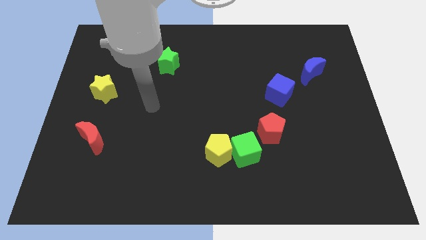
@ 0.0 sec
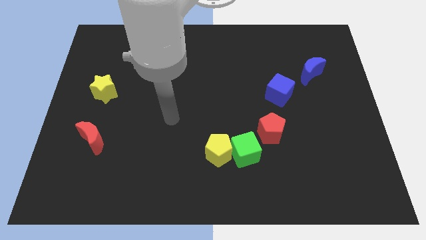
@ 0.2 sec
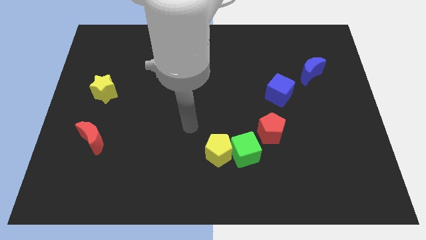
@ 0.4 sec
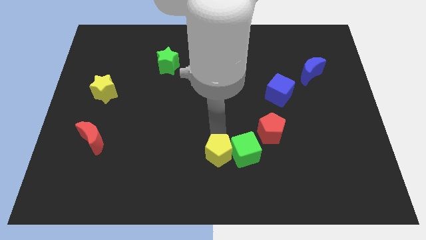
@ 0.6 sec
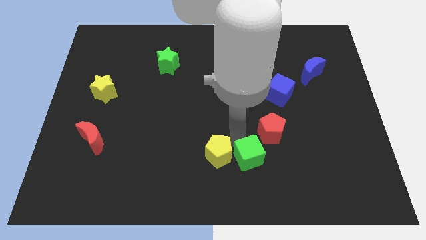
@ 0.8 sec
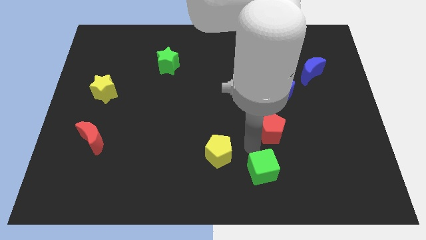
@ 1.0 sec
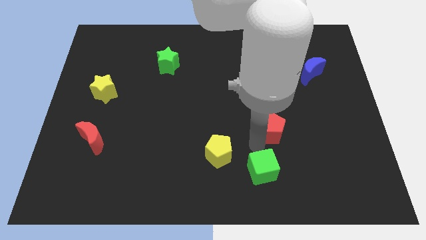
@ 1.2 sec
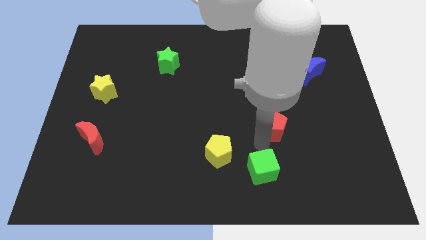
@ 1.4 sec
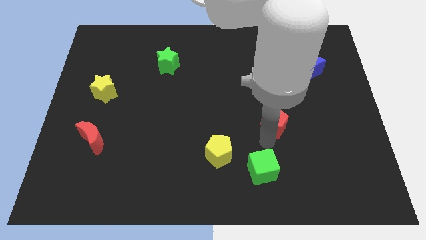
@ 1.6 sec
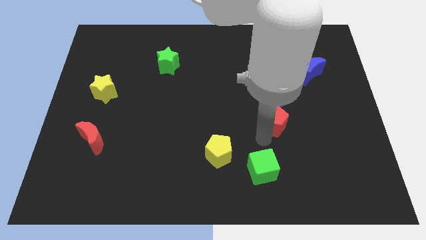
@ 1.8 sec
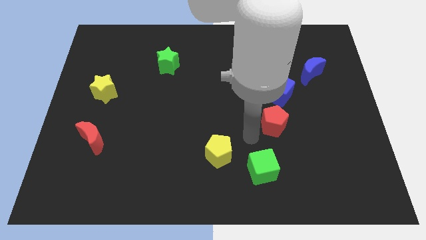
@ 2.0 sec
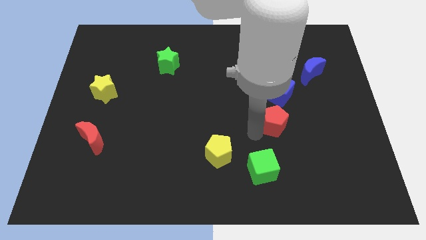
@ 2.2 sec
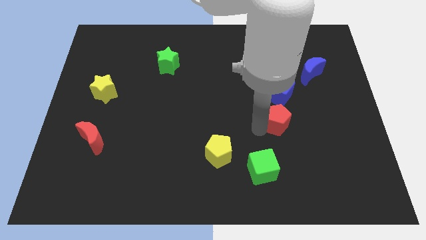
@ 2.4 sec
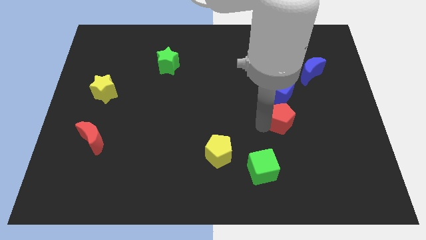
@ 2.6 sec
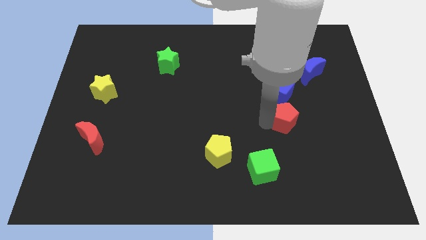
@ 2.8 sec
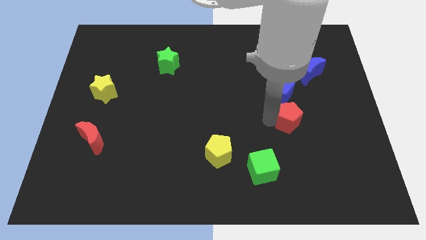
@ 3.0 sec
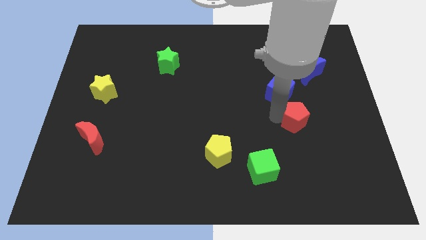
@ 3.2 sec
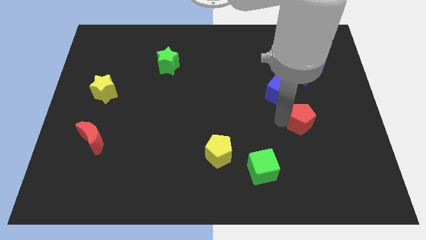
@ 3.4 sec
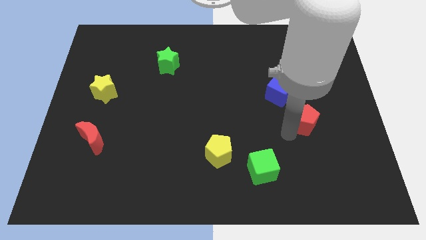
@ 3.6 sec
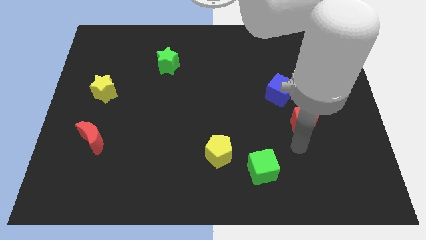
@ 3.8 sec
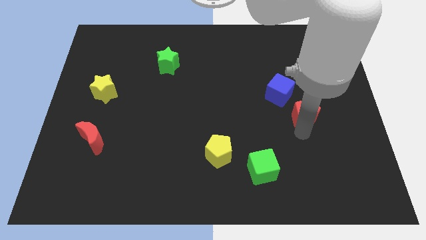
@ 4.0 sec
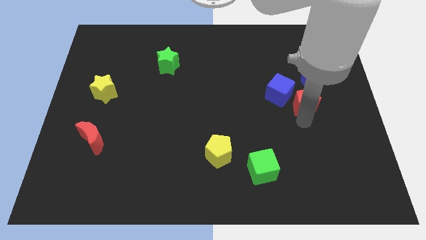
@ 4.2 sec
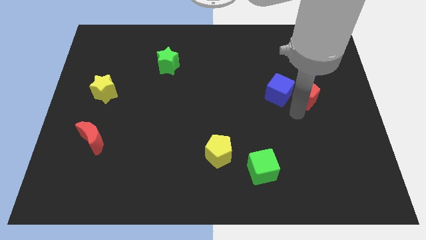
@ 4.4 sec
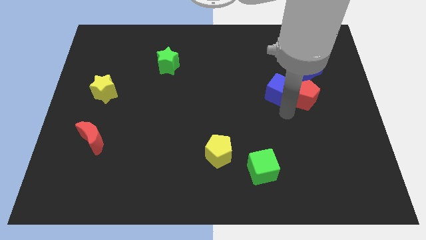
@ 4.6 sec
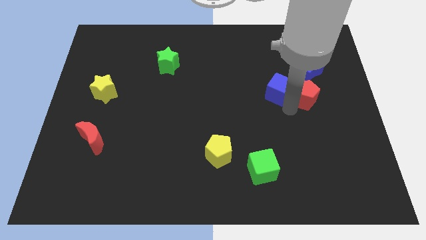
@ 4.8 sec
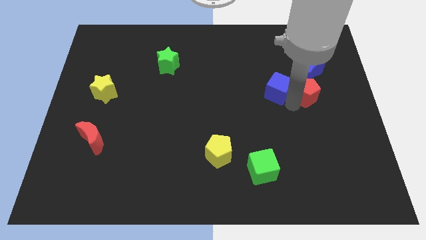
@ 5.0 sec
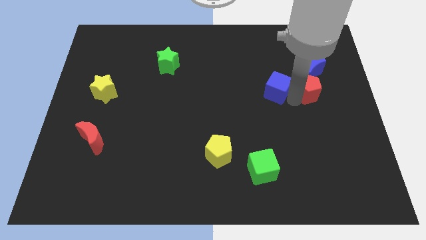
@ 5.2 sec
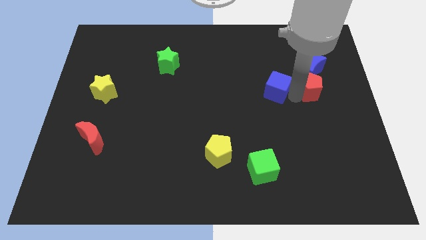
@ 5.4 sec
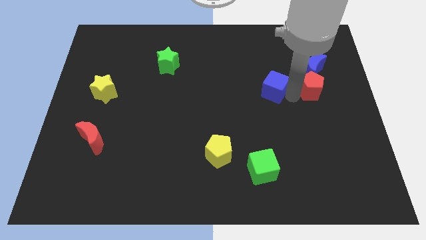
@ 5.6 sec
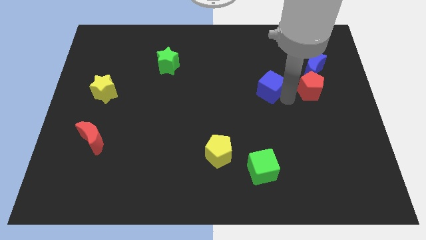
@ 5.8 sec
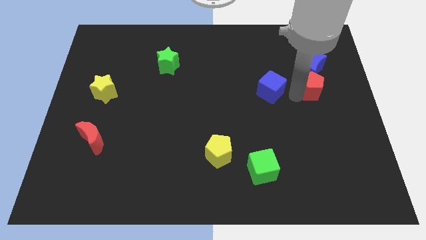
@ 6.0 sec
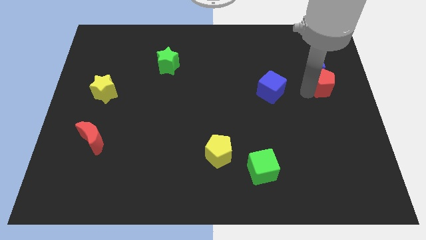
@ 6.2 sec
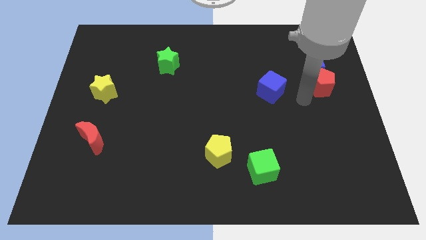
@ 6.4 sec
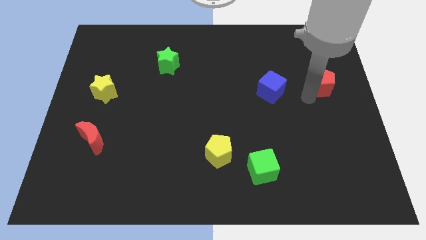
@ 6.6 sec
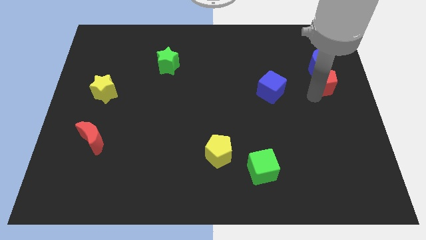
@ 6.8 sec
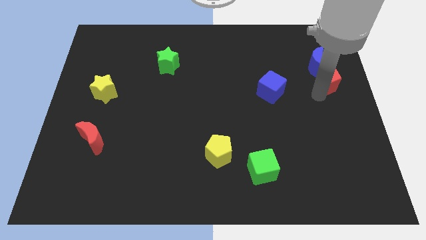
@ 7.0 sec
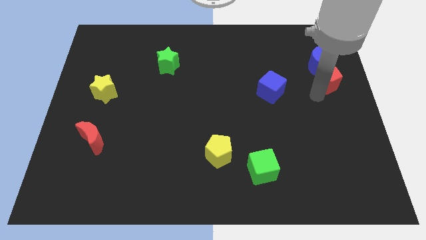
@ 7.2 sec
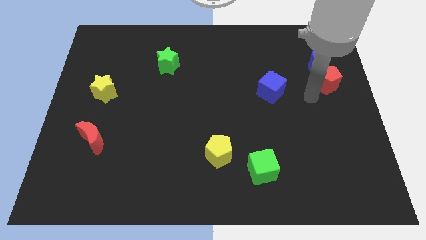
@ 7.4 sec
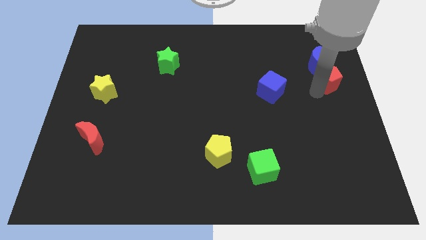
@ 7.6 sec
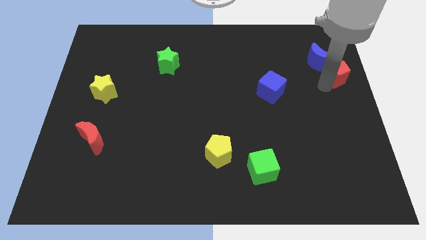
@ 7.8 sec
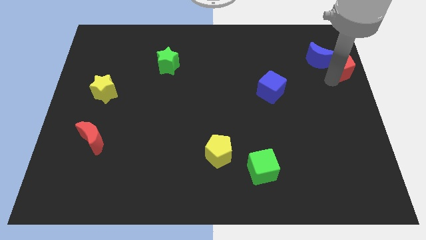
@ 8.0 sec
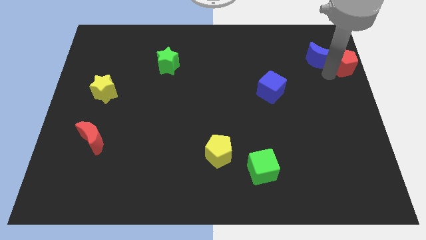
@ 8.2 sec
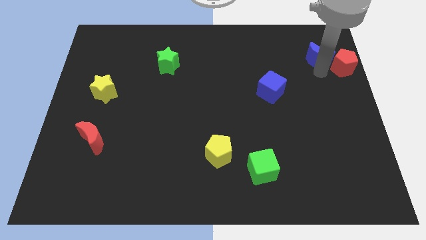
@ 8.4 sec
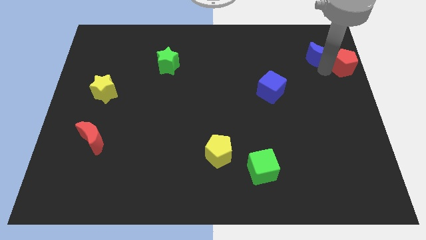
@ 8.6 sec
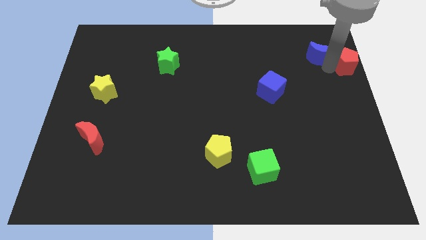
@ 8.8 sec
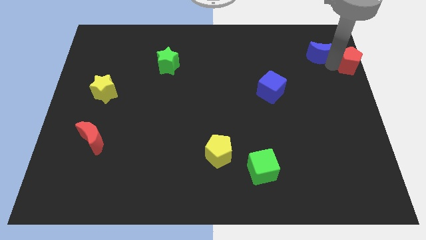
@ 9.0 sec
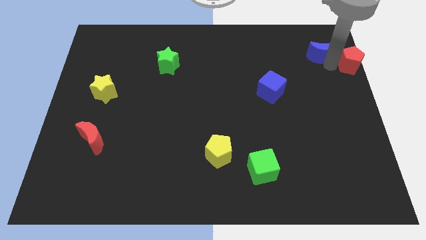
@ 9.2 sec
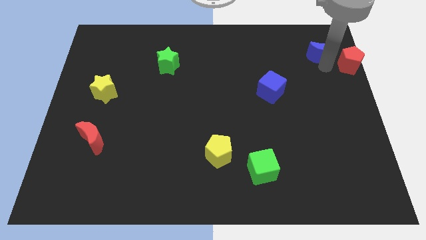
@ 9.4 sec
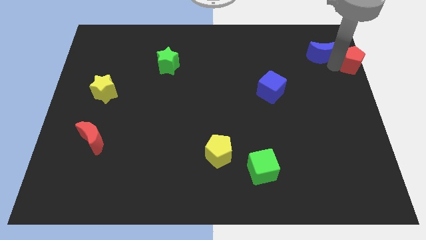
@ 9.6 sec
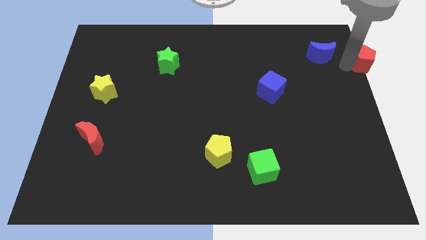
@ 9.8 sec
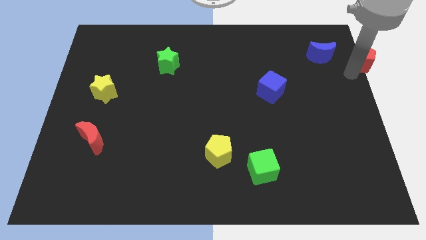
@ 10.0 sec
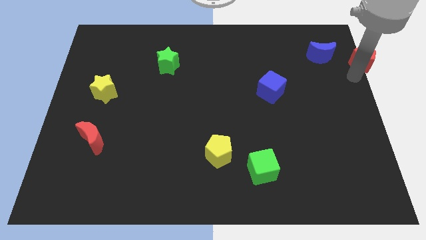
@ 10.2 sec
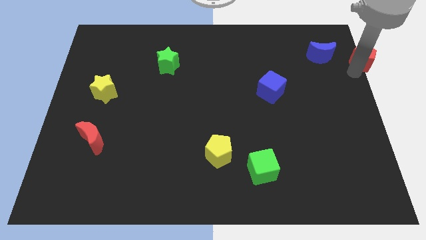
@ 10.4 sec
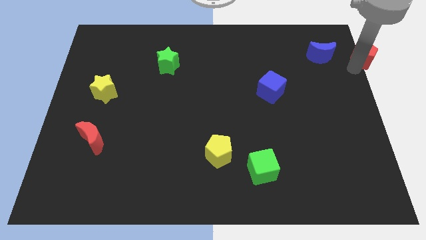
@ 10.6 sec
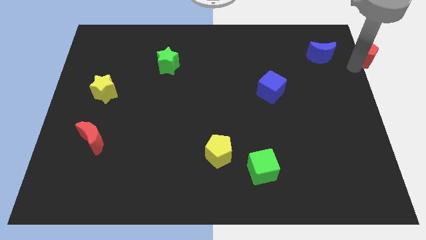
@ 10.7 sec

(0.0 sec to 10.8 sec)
move the red pentagon to the upper right corner

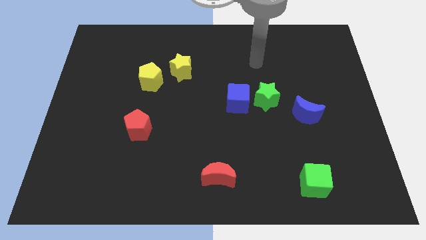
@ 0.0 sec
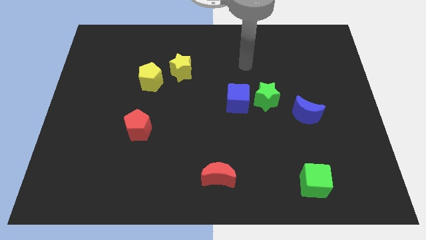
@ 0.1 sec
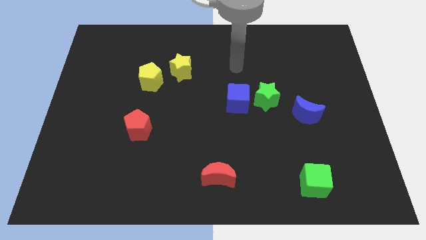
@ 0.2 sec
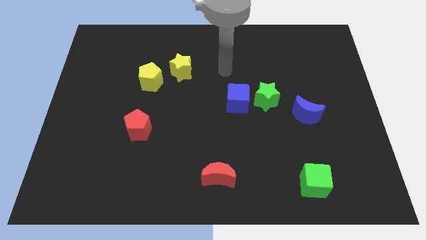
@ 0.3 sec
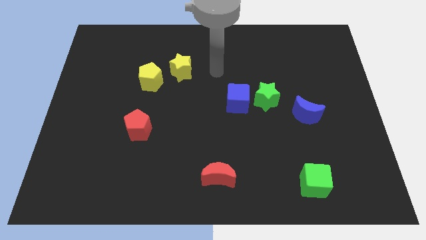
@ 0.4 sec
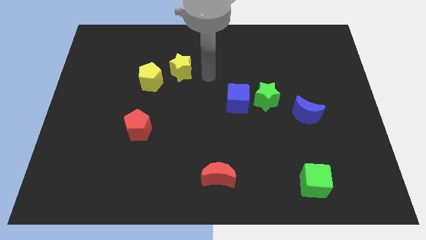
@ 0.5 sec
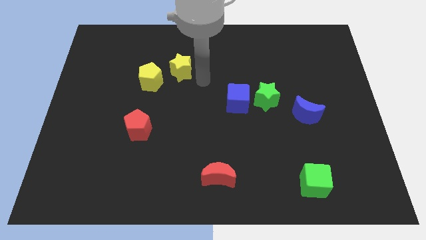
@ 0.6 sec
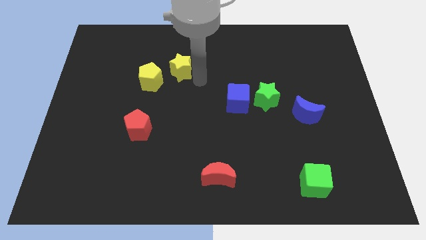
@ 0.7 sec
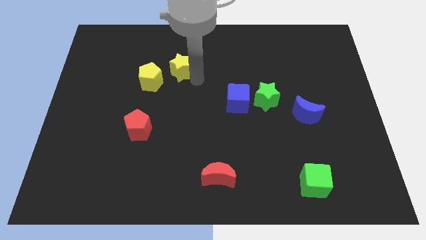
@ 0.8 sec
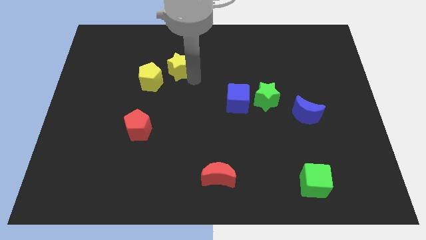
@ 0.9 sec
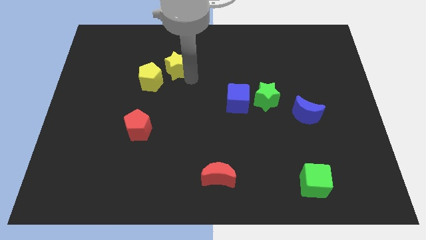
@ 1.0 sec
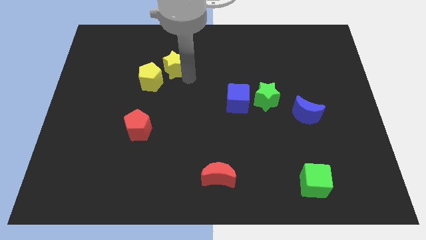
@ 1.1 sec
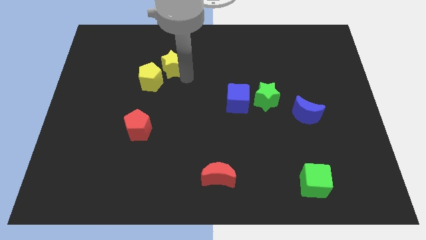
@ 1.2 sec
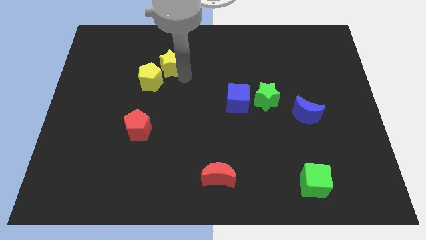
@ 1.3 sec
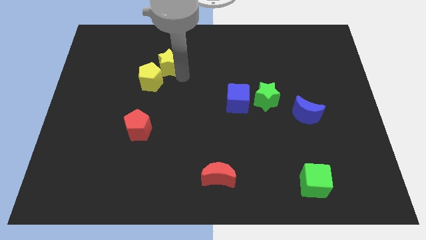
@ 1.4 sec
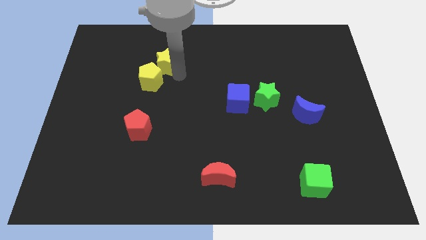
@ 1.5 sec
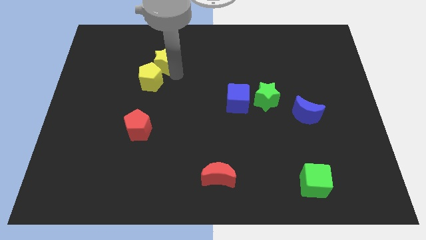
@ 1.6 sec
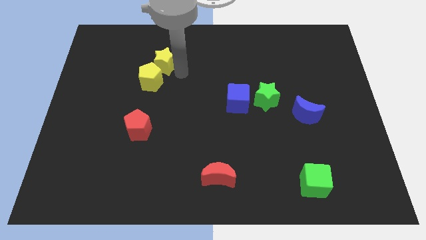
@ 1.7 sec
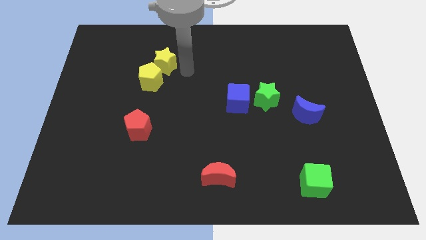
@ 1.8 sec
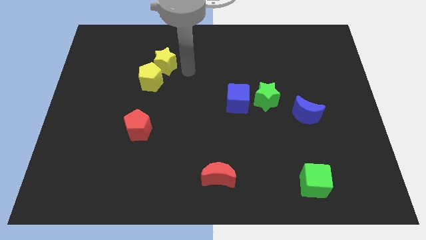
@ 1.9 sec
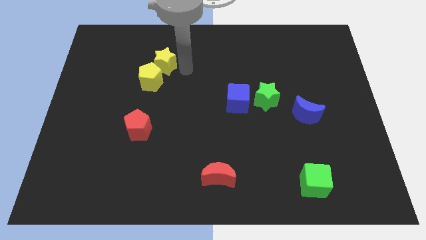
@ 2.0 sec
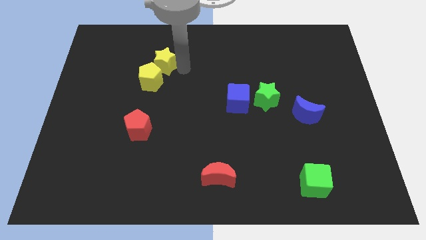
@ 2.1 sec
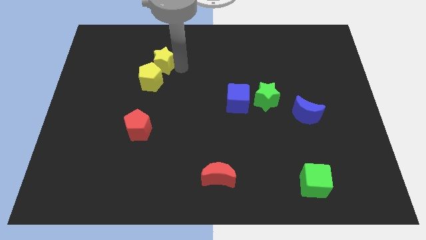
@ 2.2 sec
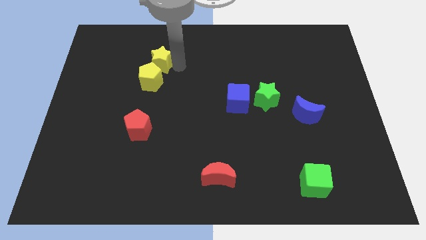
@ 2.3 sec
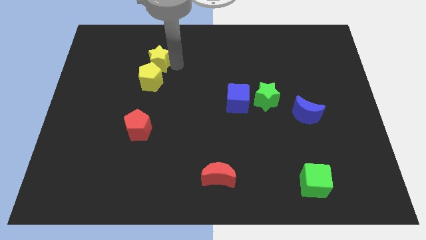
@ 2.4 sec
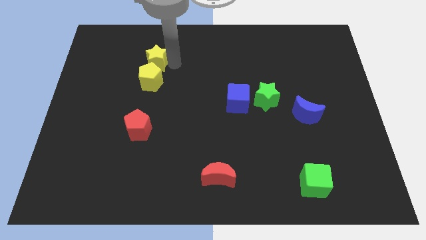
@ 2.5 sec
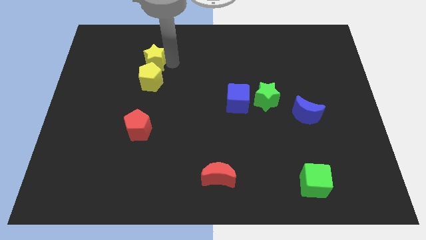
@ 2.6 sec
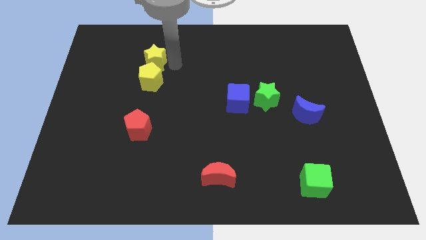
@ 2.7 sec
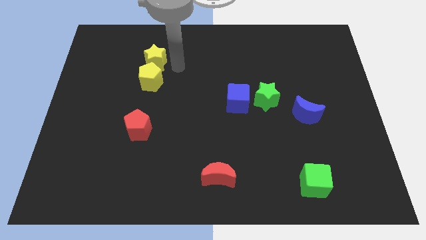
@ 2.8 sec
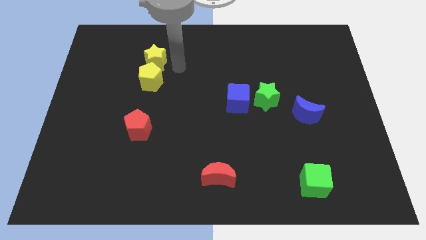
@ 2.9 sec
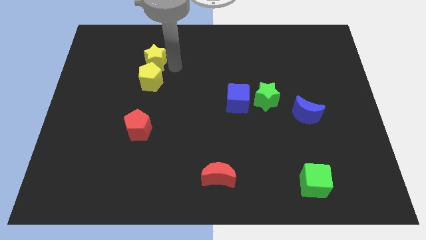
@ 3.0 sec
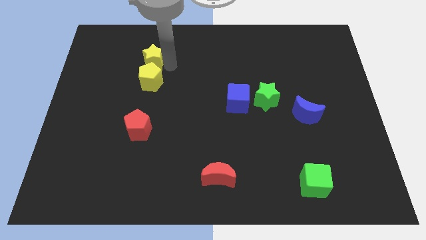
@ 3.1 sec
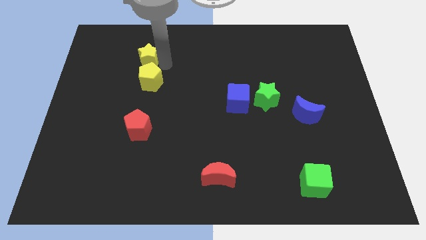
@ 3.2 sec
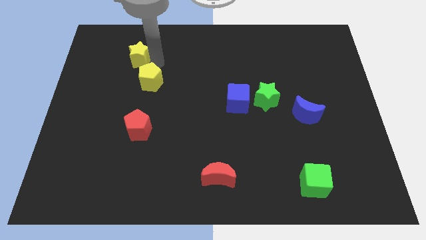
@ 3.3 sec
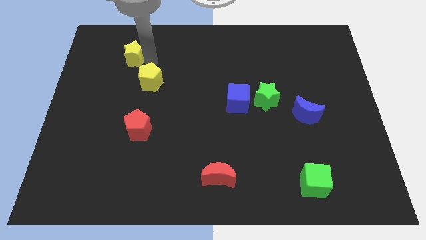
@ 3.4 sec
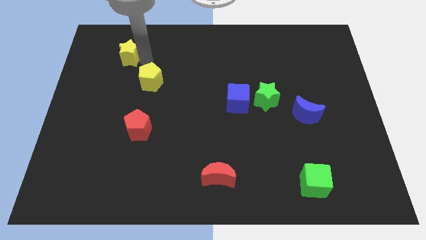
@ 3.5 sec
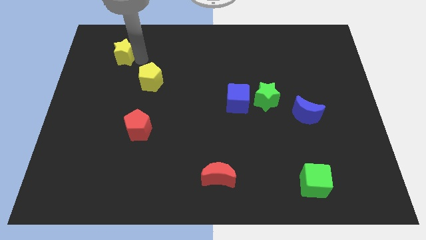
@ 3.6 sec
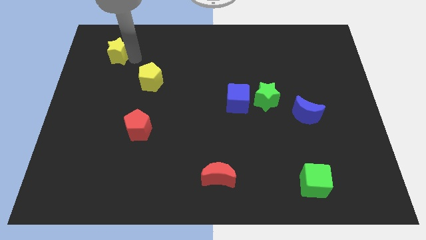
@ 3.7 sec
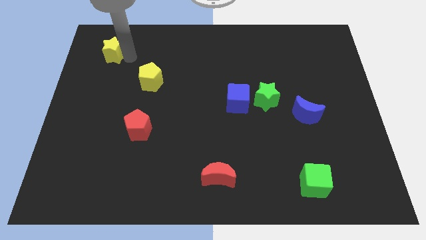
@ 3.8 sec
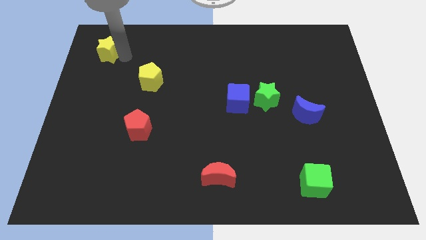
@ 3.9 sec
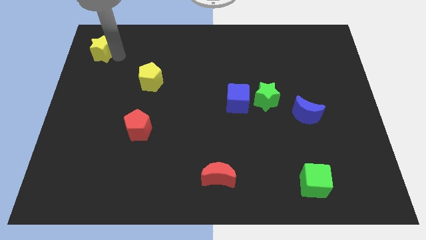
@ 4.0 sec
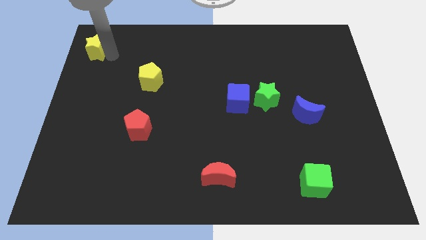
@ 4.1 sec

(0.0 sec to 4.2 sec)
slide the yellow star to the top left of the board
